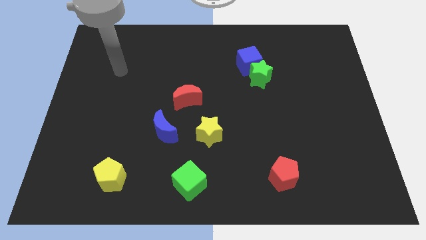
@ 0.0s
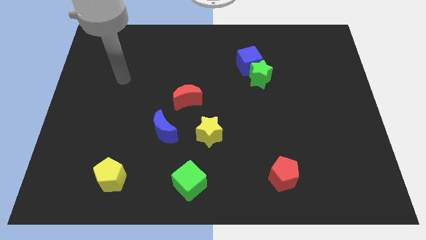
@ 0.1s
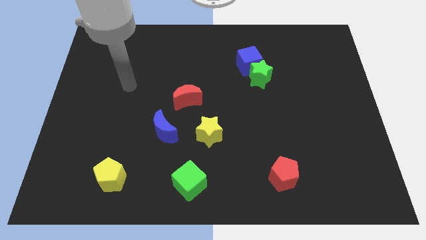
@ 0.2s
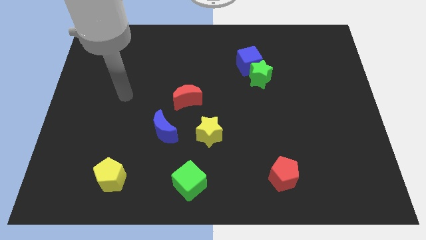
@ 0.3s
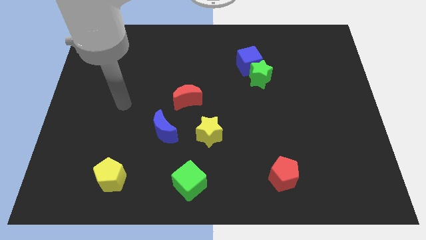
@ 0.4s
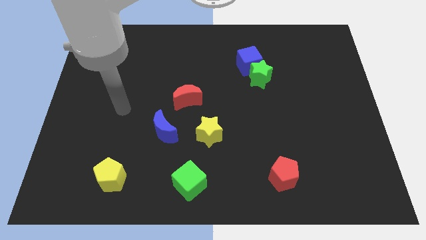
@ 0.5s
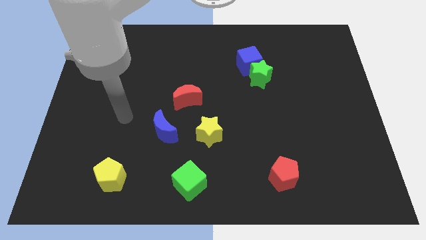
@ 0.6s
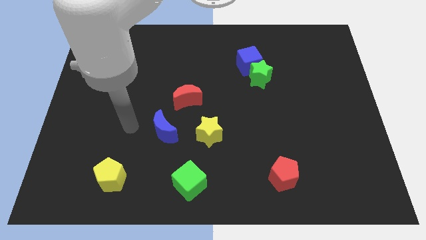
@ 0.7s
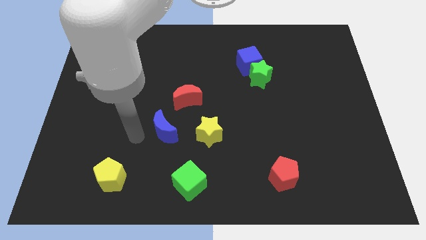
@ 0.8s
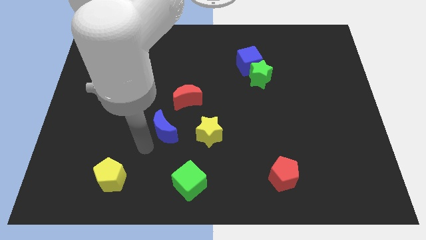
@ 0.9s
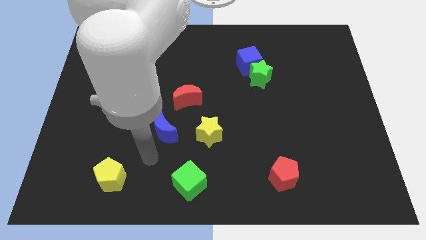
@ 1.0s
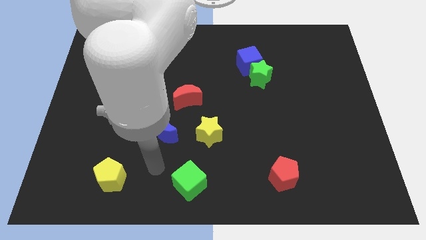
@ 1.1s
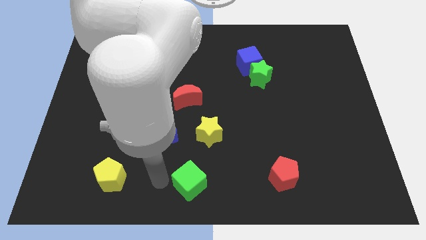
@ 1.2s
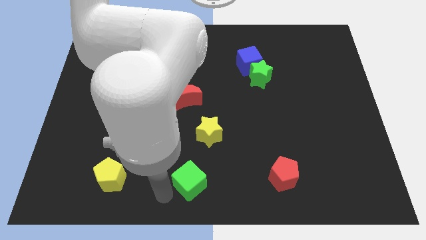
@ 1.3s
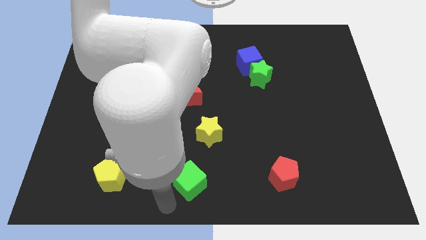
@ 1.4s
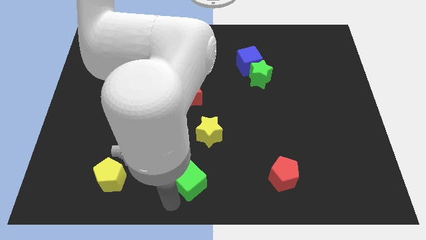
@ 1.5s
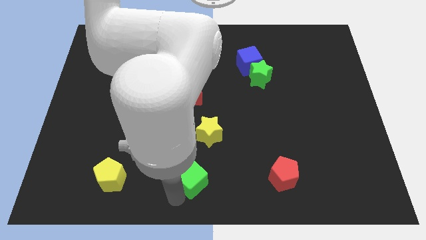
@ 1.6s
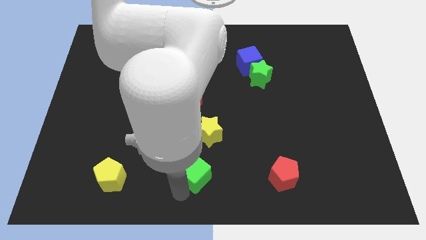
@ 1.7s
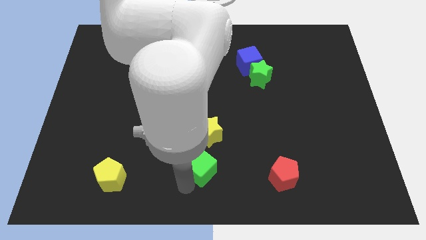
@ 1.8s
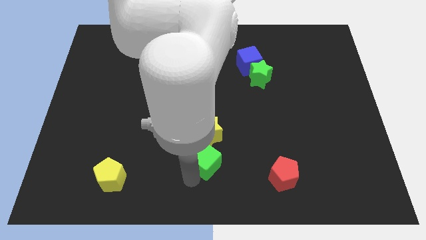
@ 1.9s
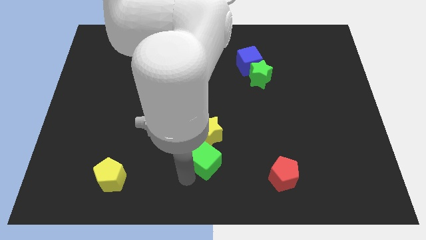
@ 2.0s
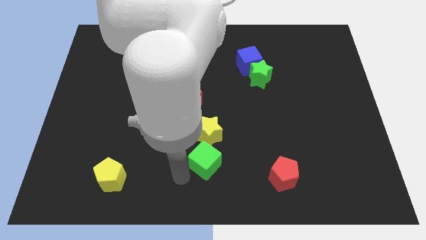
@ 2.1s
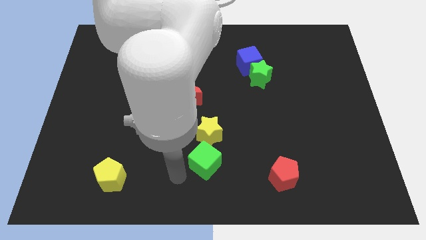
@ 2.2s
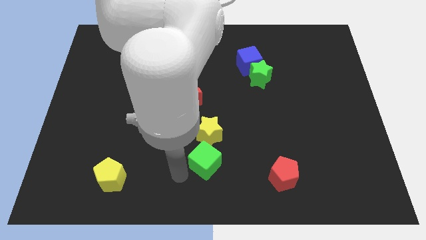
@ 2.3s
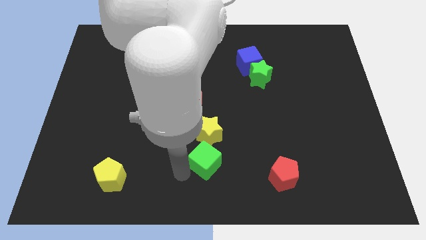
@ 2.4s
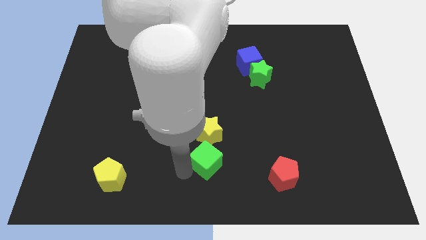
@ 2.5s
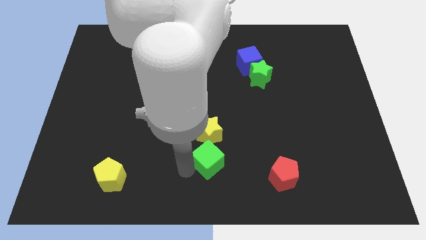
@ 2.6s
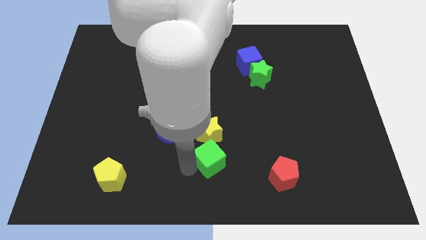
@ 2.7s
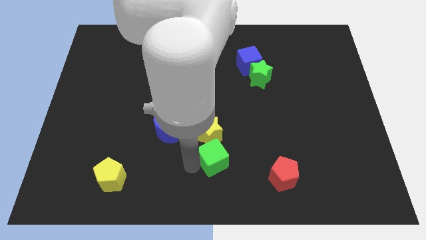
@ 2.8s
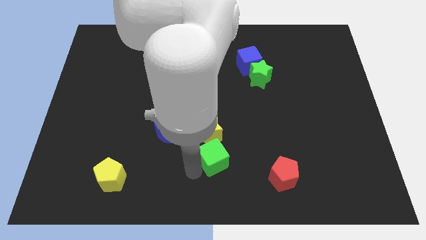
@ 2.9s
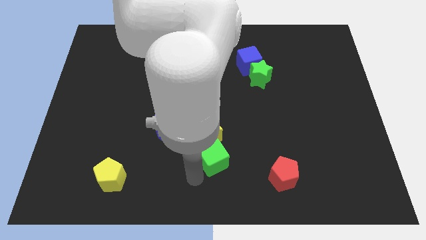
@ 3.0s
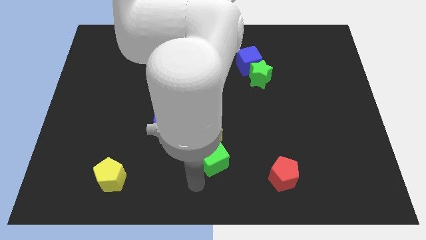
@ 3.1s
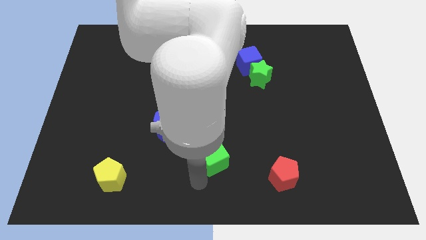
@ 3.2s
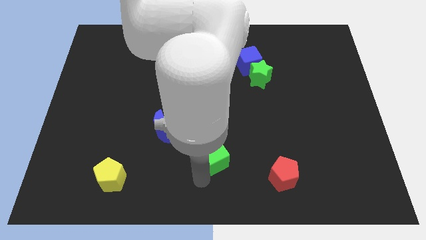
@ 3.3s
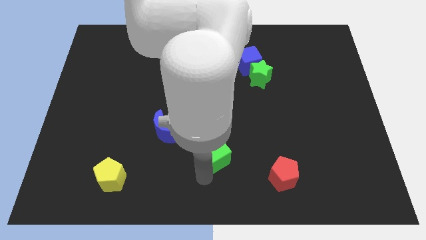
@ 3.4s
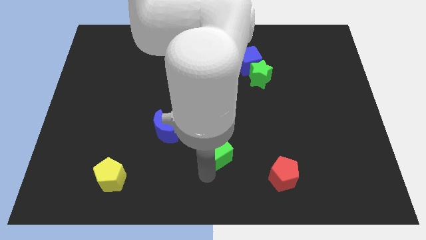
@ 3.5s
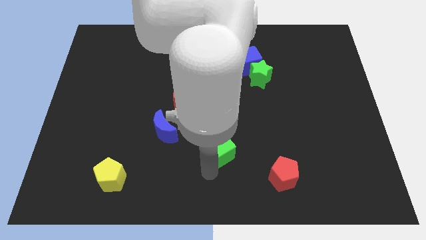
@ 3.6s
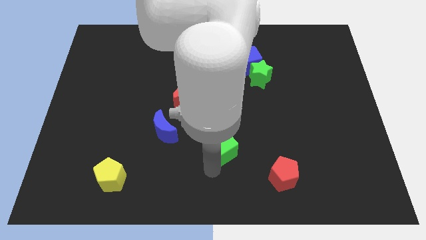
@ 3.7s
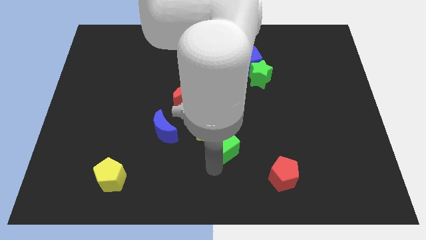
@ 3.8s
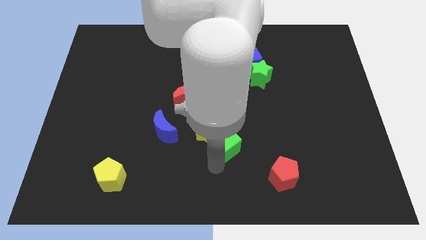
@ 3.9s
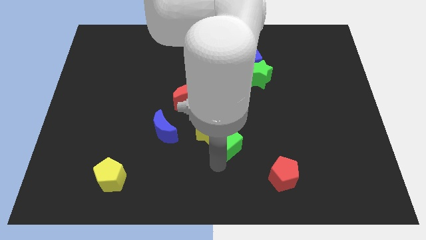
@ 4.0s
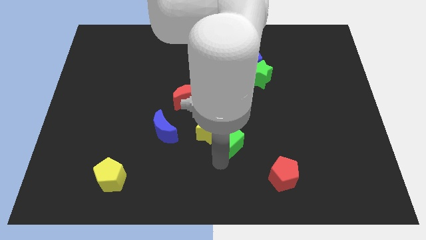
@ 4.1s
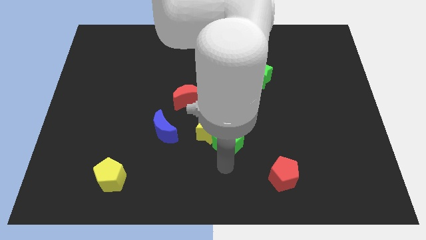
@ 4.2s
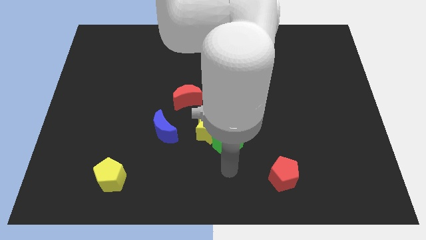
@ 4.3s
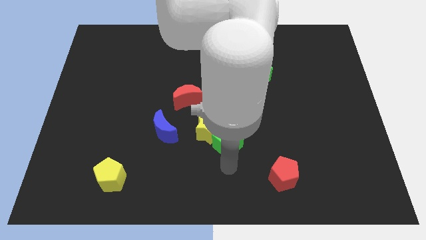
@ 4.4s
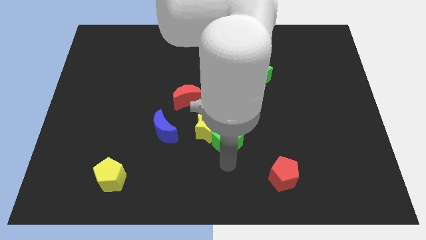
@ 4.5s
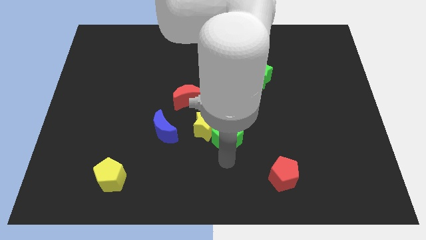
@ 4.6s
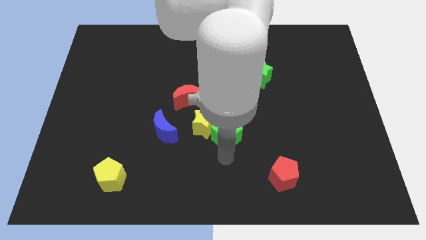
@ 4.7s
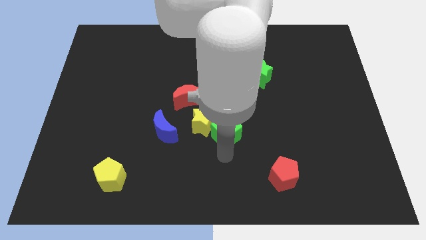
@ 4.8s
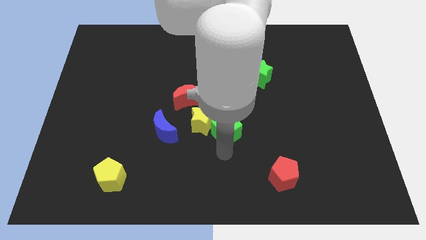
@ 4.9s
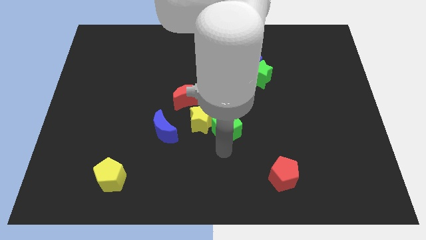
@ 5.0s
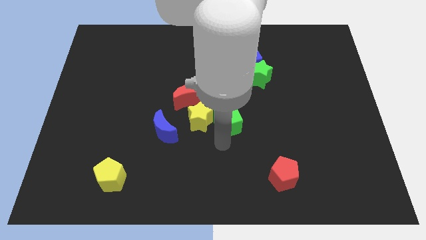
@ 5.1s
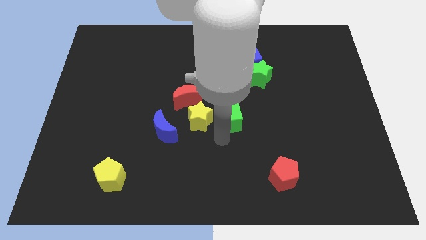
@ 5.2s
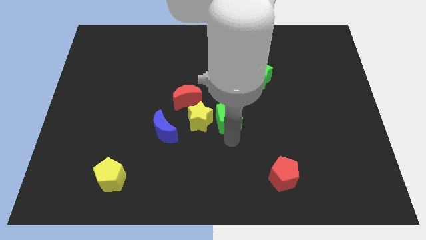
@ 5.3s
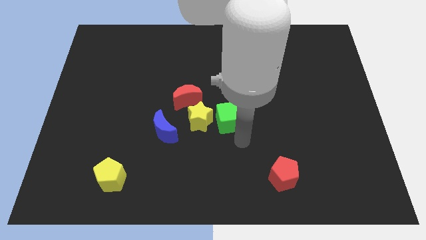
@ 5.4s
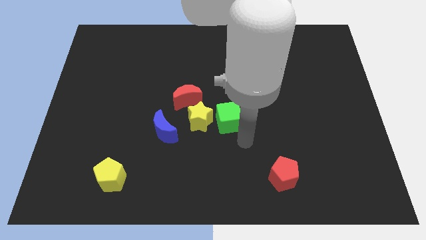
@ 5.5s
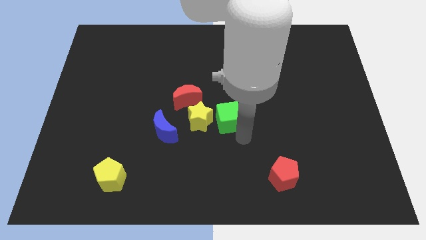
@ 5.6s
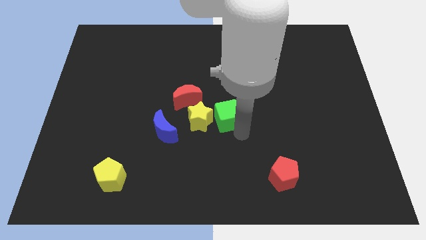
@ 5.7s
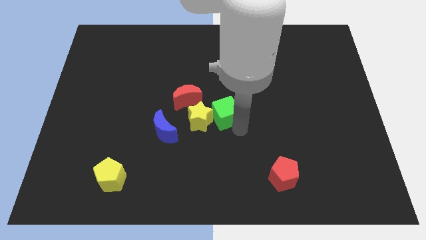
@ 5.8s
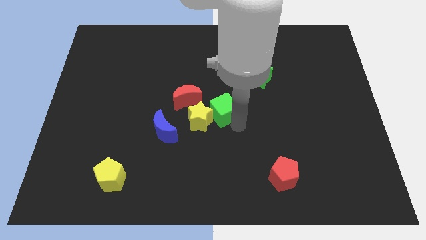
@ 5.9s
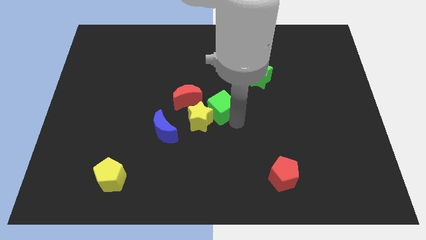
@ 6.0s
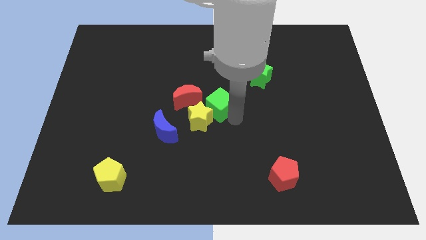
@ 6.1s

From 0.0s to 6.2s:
put the green cube to the top of the yellow star

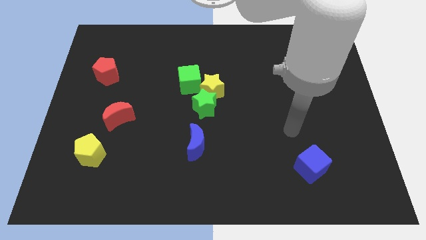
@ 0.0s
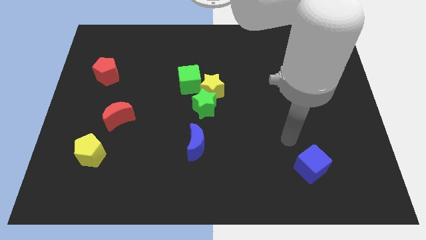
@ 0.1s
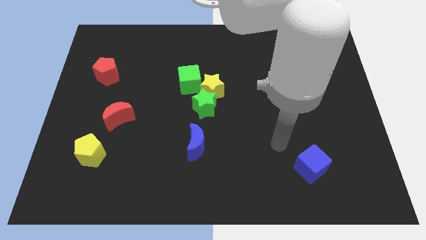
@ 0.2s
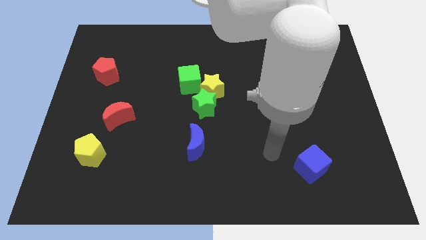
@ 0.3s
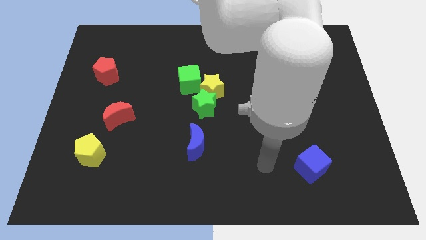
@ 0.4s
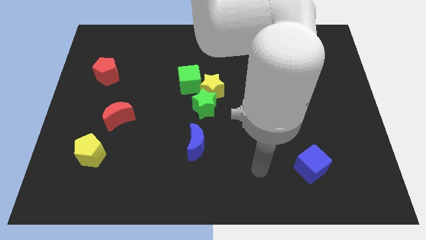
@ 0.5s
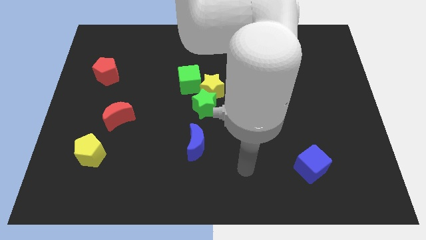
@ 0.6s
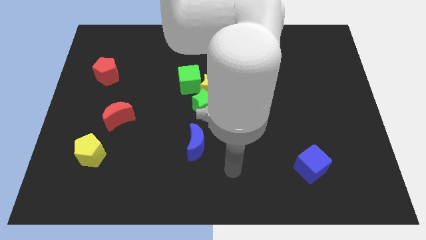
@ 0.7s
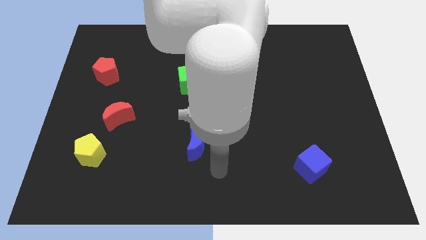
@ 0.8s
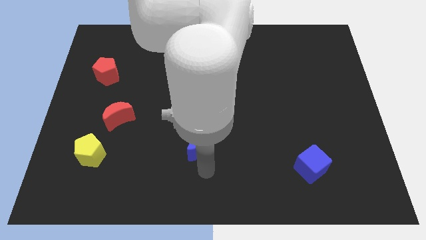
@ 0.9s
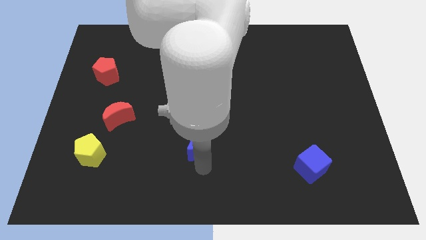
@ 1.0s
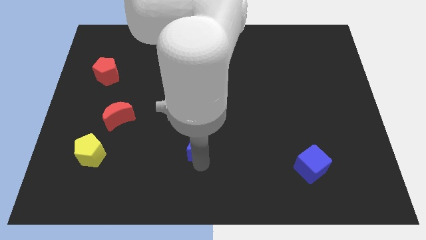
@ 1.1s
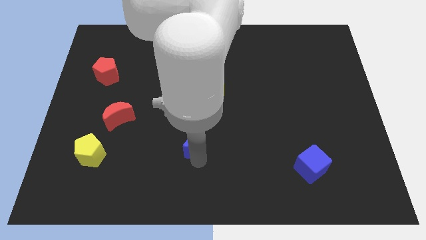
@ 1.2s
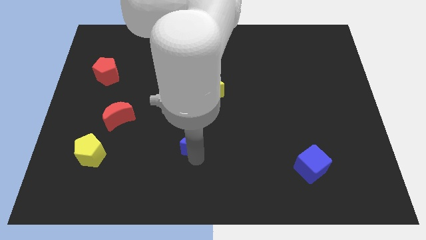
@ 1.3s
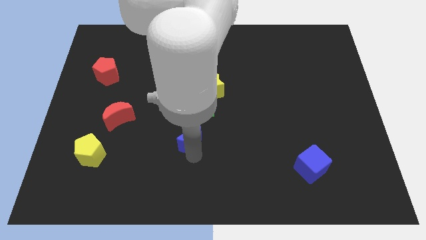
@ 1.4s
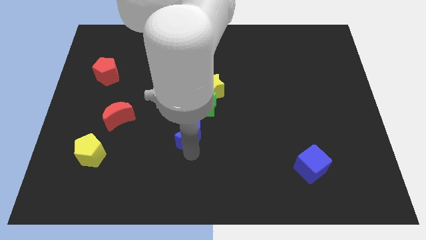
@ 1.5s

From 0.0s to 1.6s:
push the blue moon to the bottom side of the green cube
